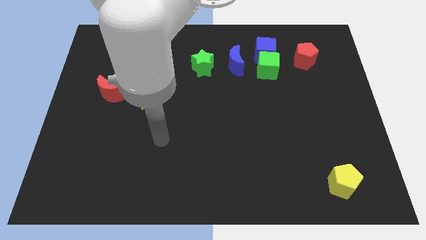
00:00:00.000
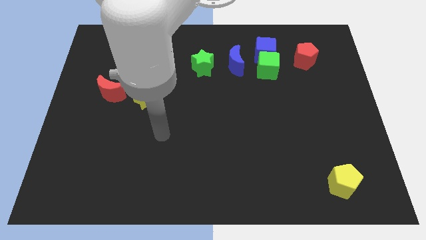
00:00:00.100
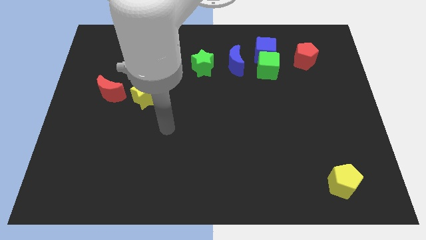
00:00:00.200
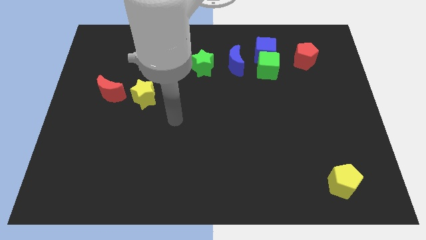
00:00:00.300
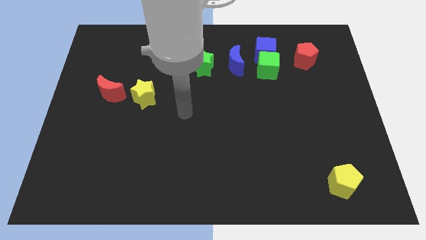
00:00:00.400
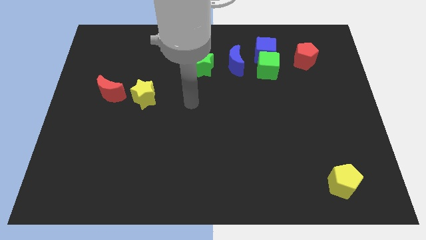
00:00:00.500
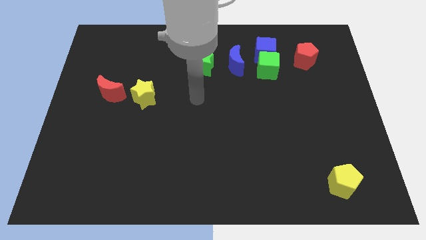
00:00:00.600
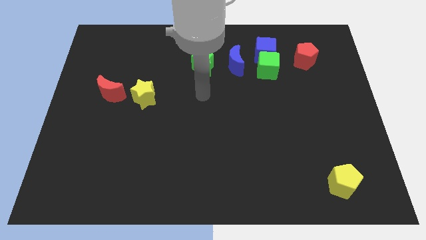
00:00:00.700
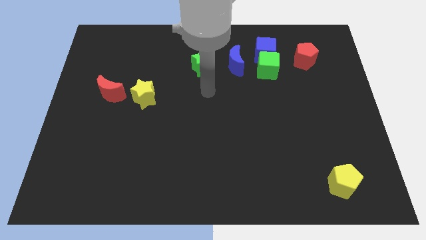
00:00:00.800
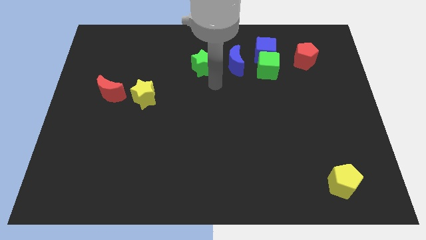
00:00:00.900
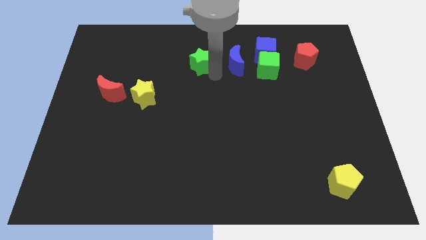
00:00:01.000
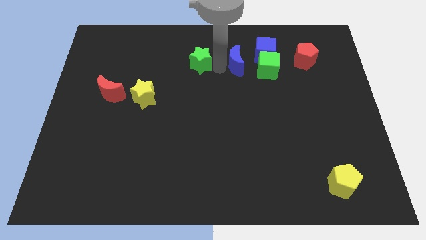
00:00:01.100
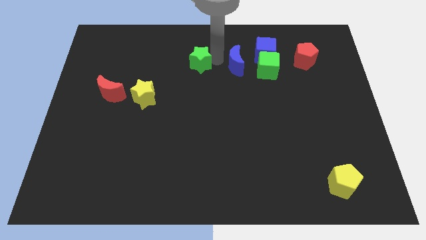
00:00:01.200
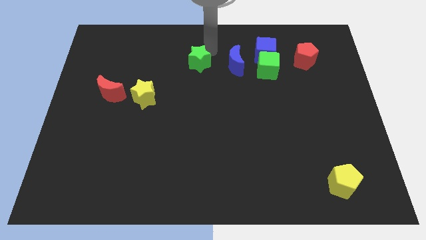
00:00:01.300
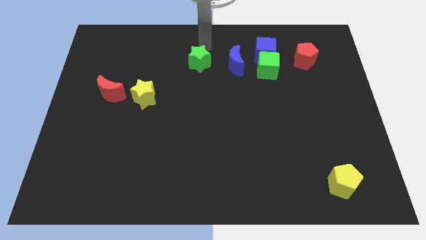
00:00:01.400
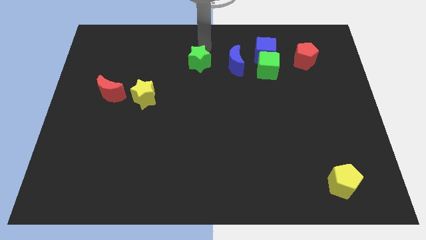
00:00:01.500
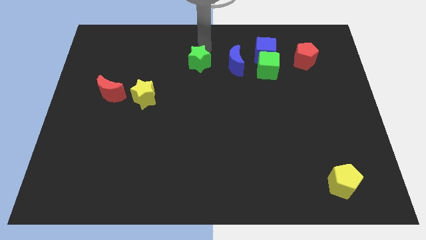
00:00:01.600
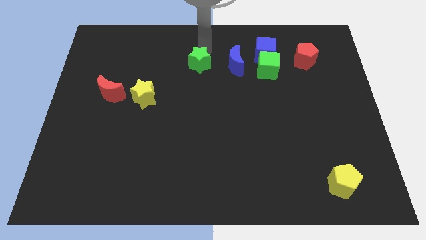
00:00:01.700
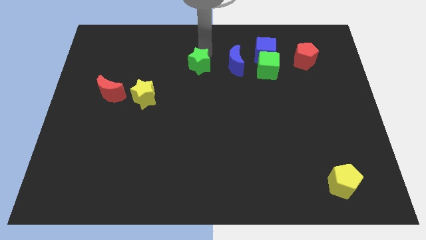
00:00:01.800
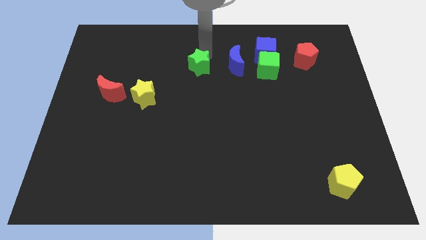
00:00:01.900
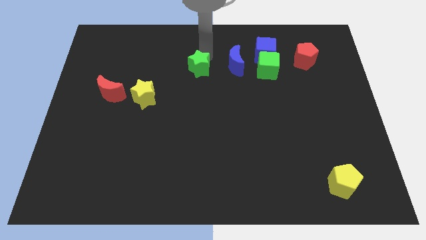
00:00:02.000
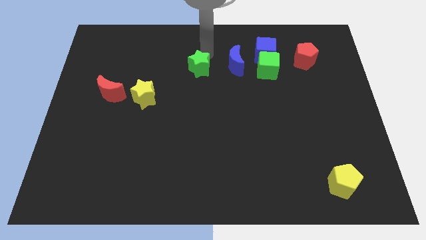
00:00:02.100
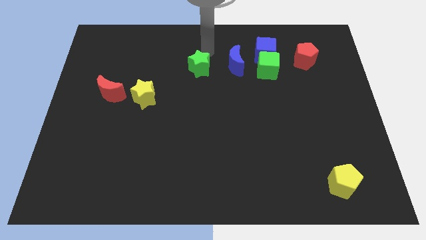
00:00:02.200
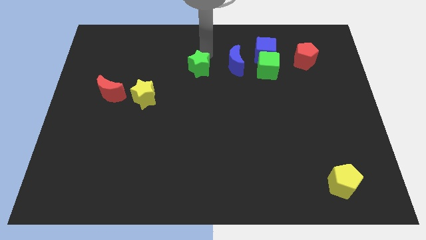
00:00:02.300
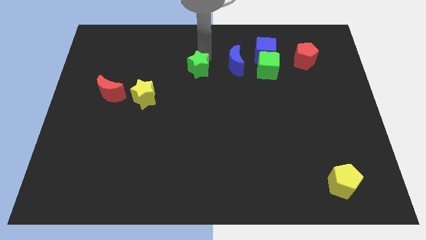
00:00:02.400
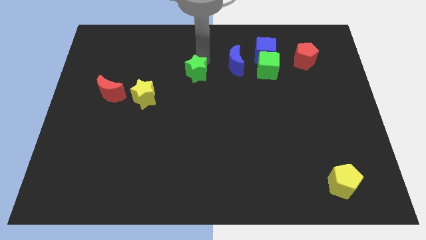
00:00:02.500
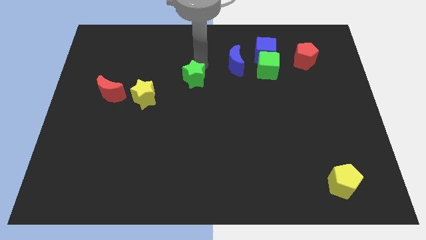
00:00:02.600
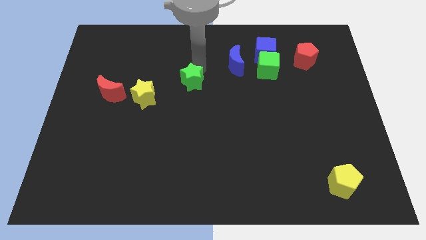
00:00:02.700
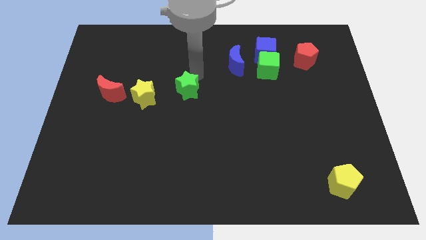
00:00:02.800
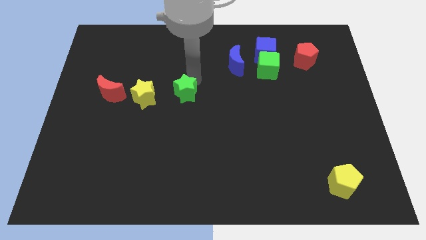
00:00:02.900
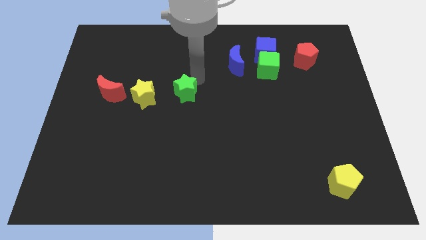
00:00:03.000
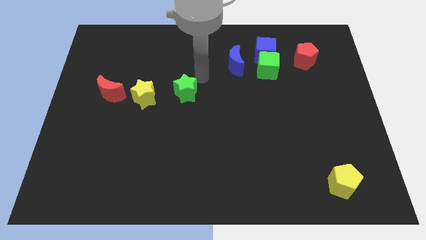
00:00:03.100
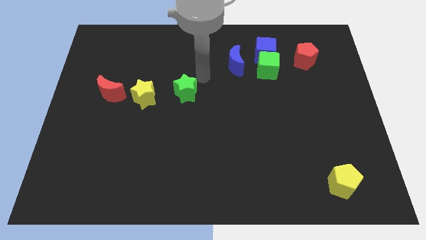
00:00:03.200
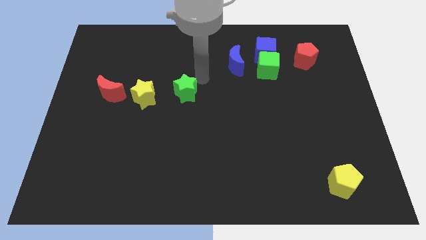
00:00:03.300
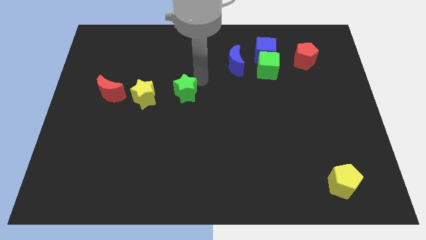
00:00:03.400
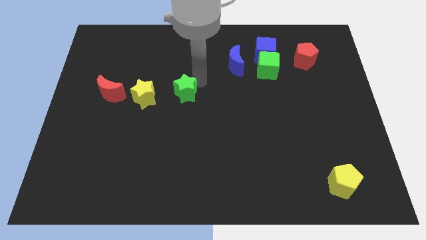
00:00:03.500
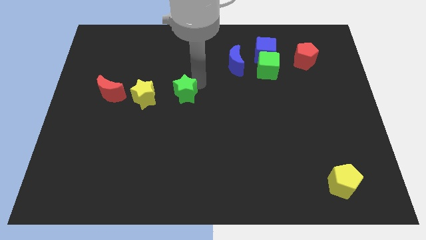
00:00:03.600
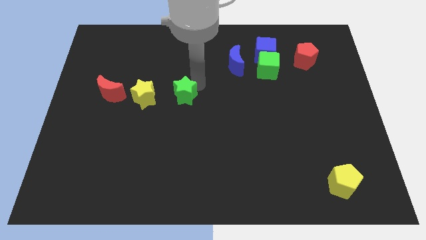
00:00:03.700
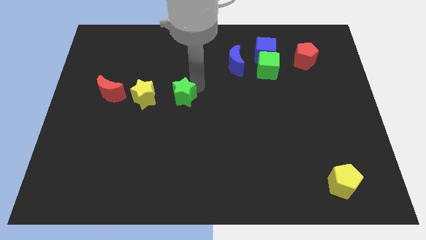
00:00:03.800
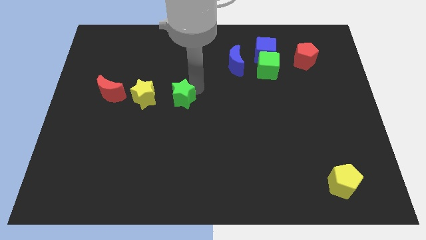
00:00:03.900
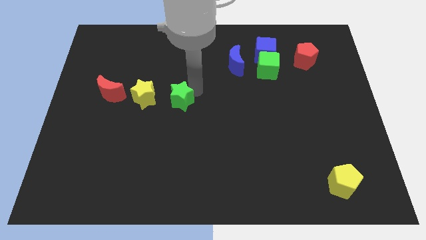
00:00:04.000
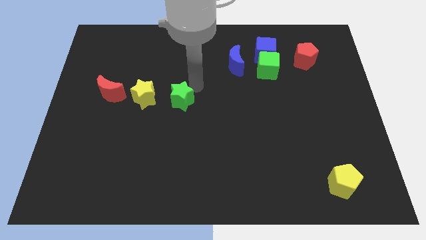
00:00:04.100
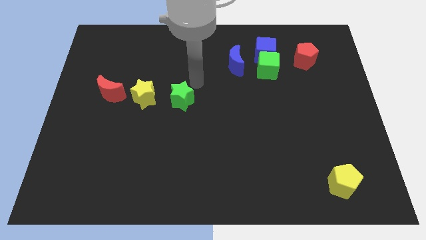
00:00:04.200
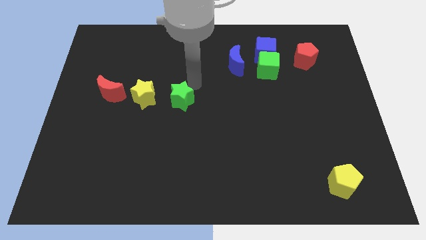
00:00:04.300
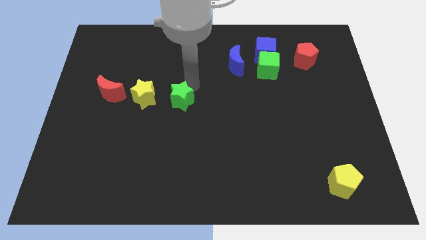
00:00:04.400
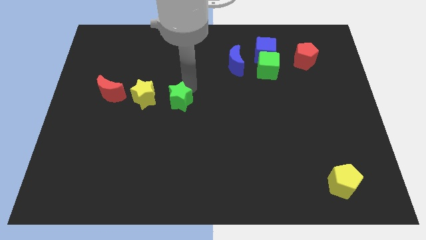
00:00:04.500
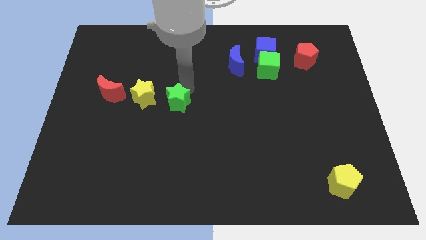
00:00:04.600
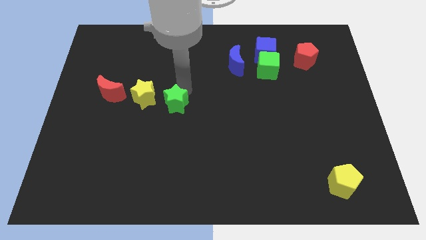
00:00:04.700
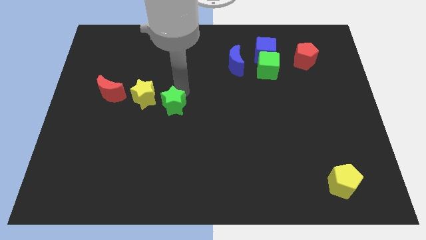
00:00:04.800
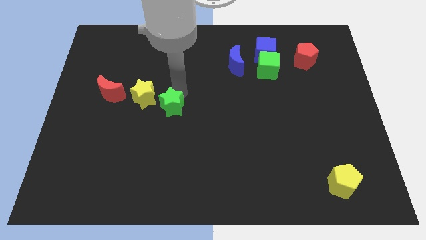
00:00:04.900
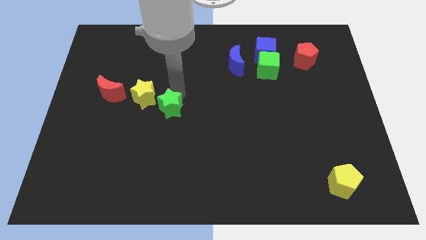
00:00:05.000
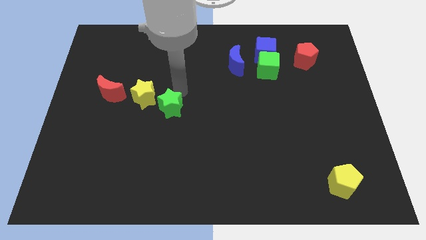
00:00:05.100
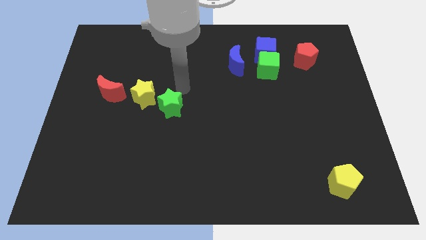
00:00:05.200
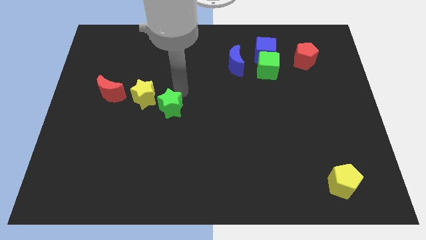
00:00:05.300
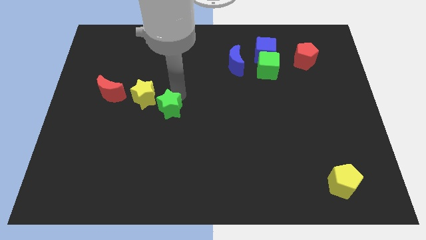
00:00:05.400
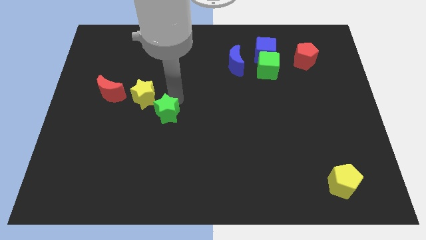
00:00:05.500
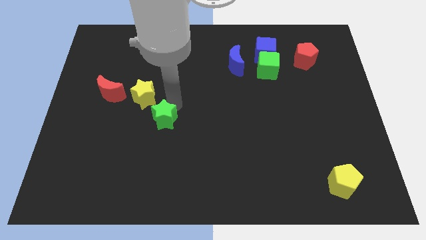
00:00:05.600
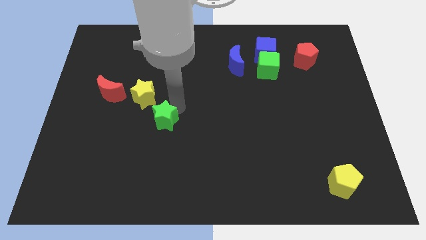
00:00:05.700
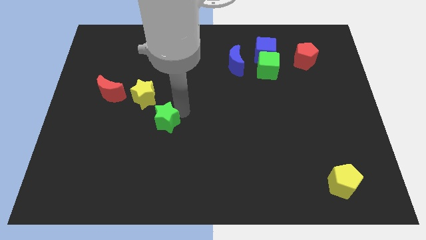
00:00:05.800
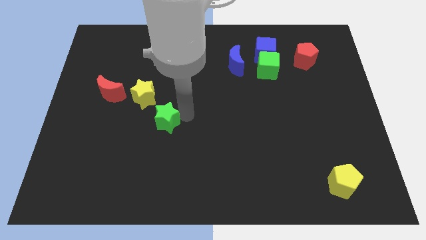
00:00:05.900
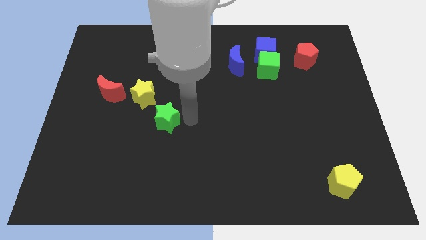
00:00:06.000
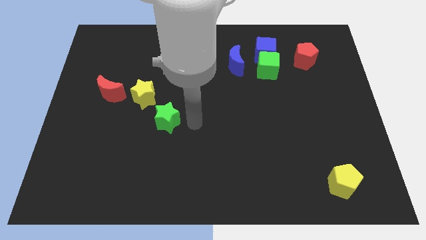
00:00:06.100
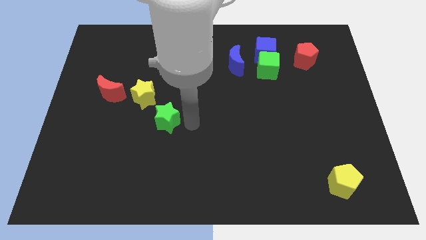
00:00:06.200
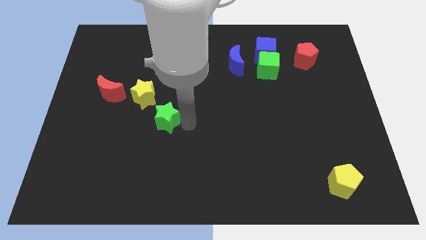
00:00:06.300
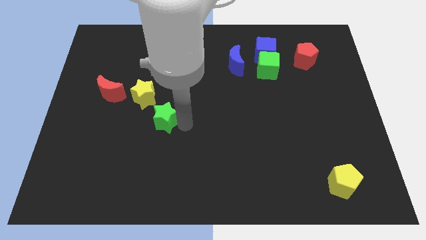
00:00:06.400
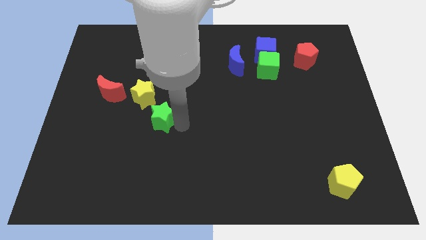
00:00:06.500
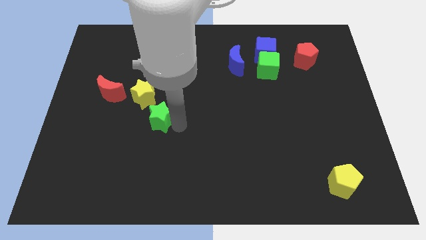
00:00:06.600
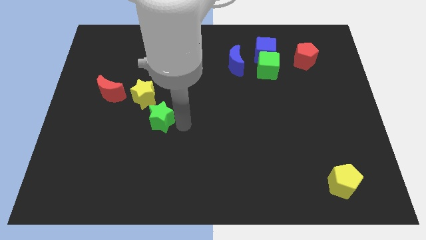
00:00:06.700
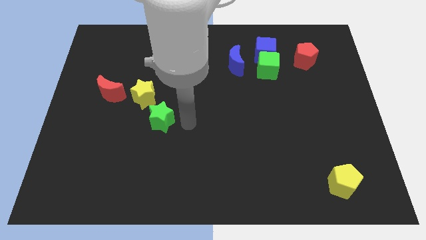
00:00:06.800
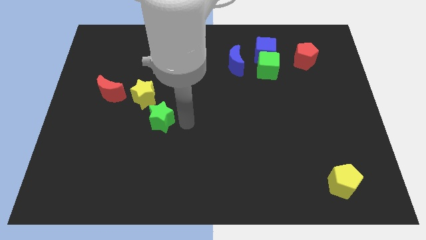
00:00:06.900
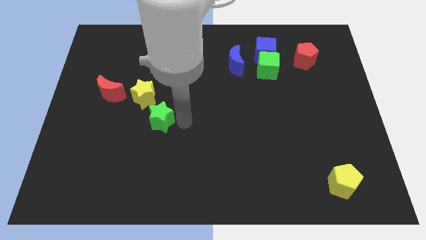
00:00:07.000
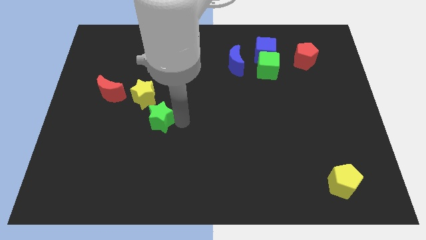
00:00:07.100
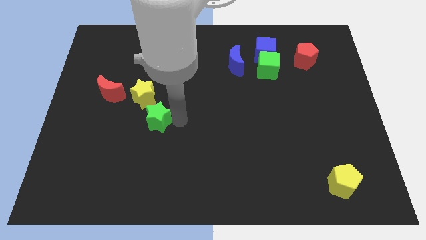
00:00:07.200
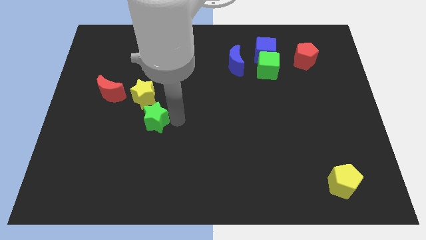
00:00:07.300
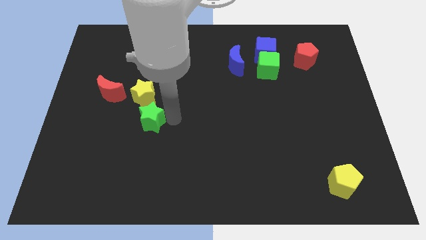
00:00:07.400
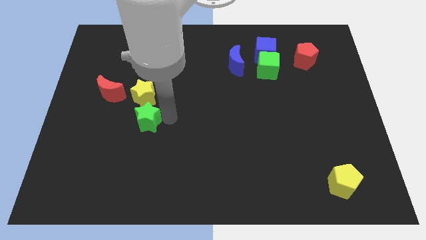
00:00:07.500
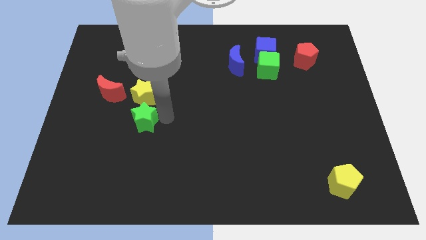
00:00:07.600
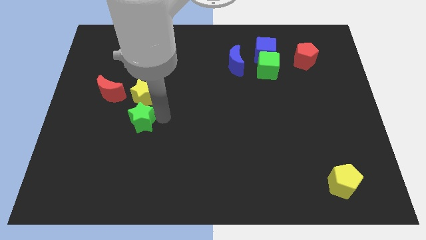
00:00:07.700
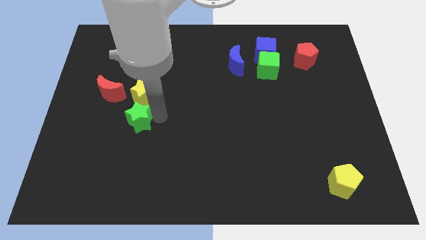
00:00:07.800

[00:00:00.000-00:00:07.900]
slide the green star diagonally down and to the left of the yellow star

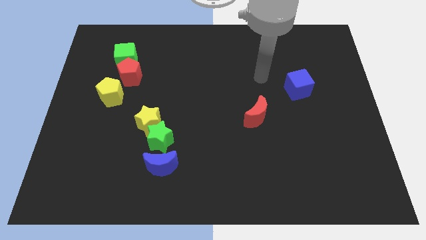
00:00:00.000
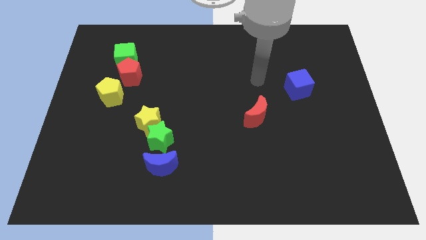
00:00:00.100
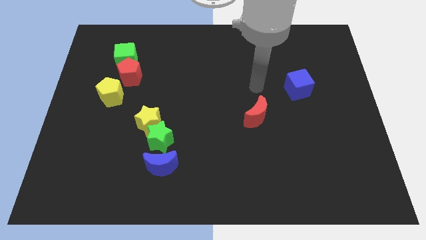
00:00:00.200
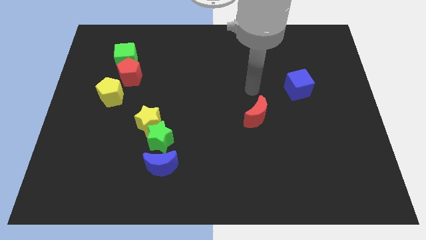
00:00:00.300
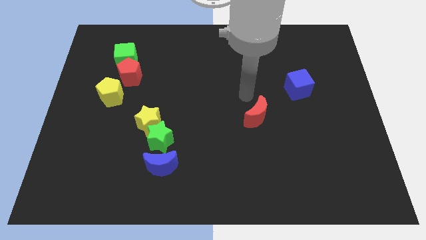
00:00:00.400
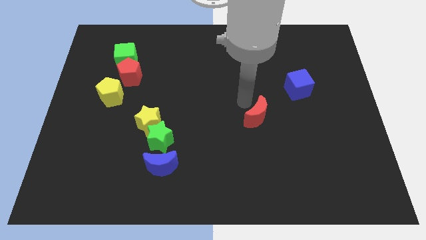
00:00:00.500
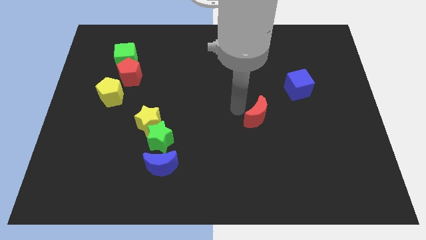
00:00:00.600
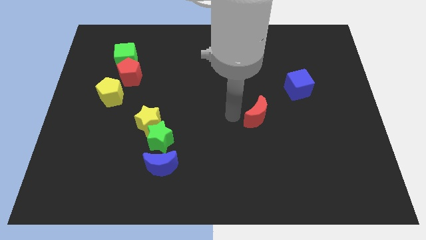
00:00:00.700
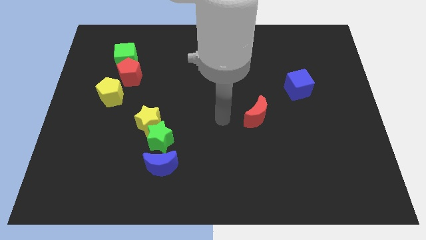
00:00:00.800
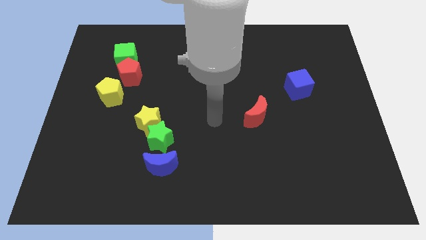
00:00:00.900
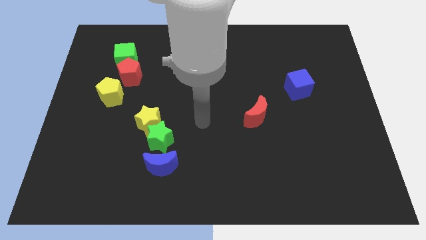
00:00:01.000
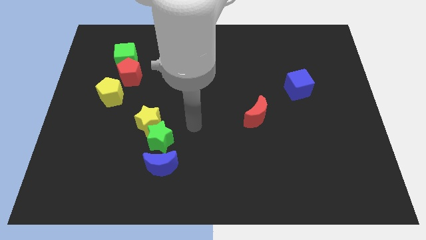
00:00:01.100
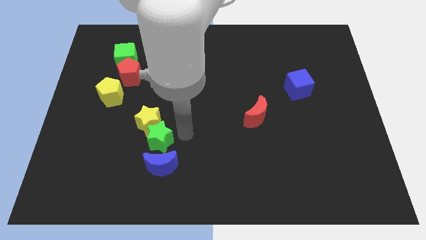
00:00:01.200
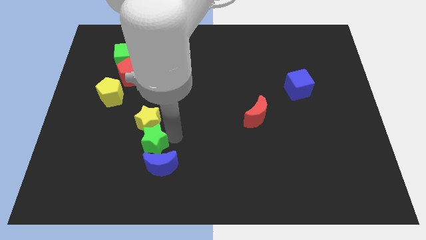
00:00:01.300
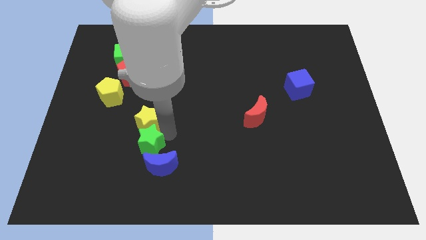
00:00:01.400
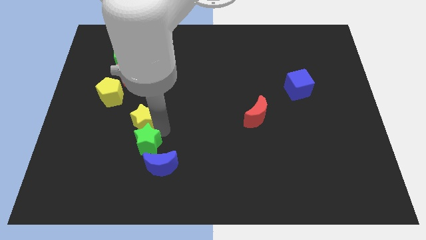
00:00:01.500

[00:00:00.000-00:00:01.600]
slide the yellow star to the bottom right side of the yellow pentagon
